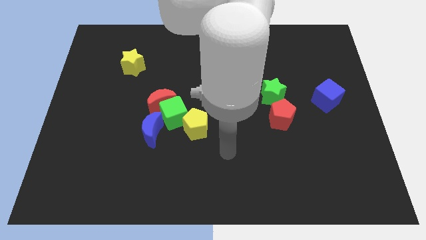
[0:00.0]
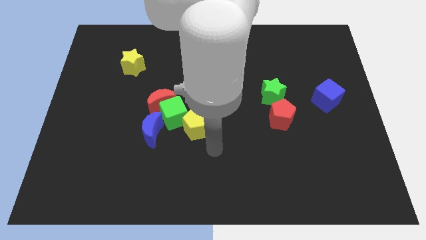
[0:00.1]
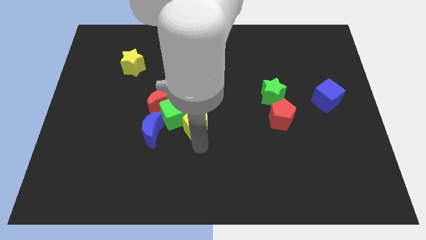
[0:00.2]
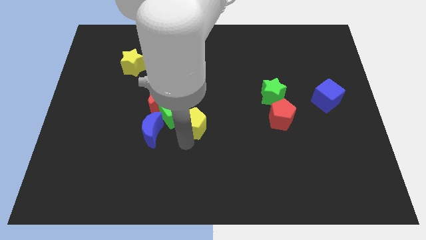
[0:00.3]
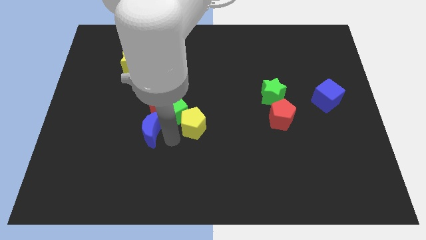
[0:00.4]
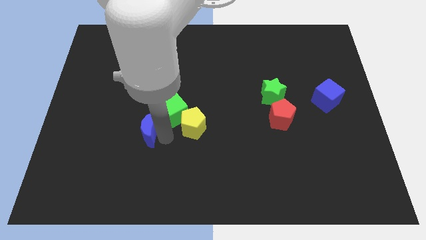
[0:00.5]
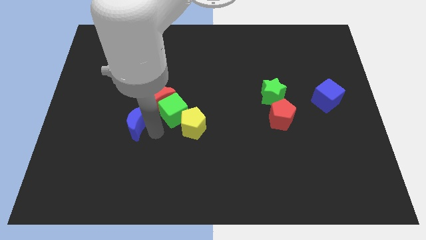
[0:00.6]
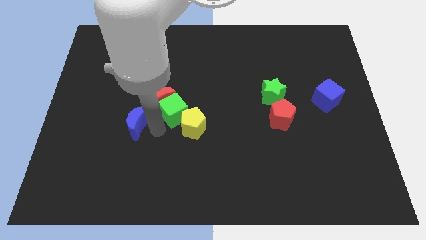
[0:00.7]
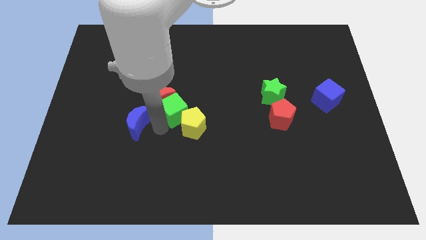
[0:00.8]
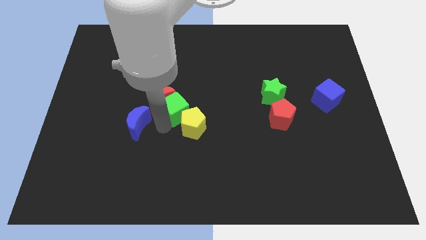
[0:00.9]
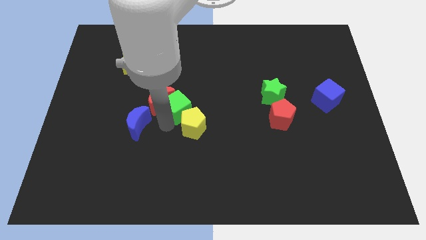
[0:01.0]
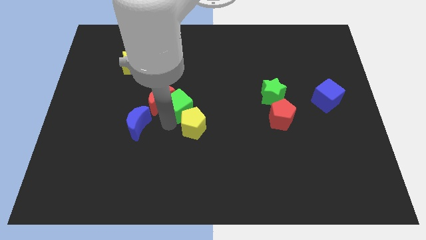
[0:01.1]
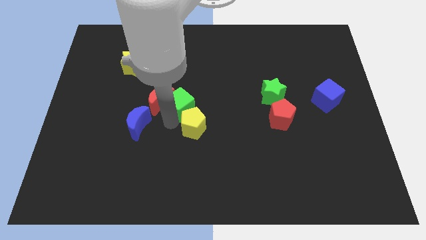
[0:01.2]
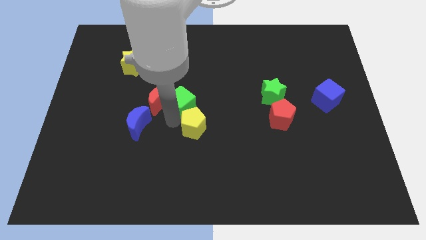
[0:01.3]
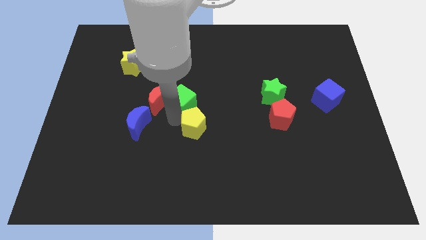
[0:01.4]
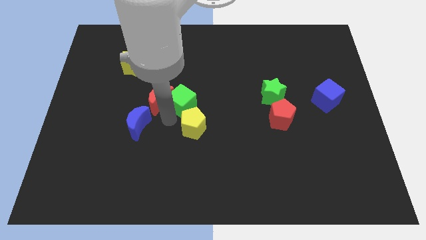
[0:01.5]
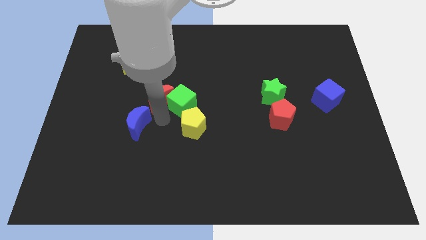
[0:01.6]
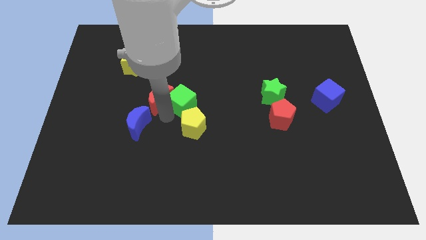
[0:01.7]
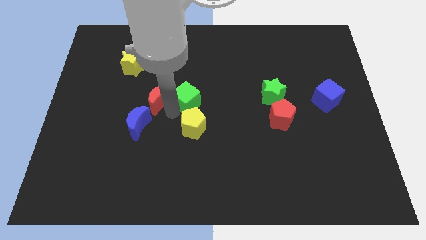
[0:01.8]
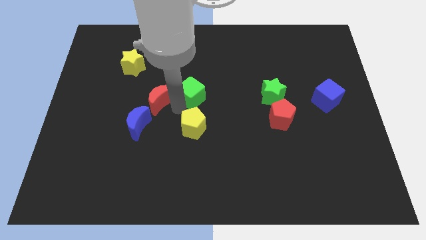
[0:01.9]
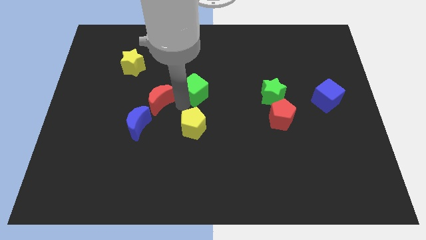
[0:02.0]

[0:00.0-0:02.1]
separate the green cube from the clump

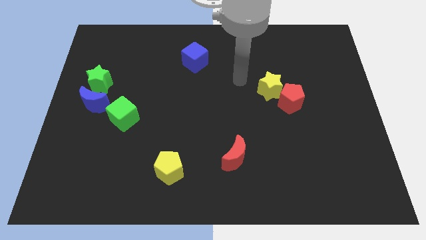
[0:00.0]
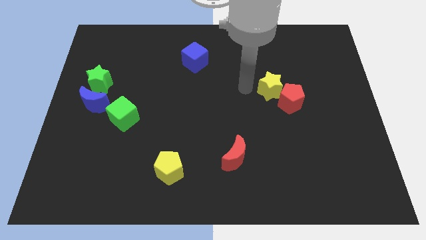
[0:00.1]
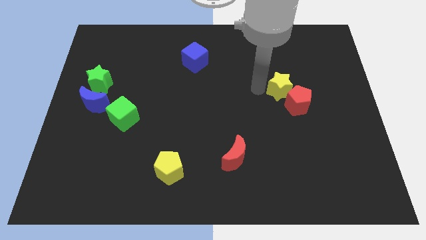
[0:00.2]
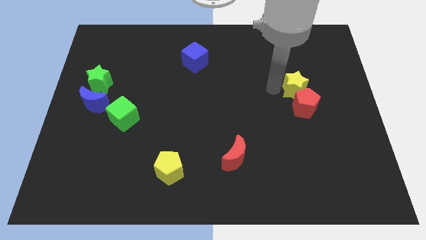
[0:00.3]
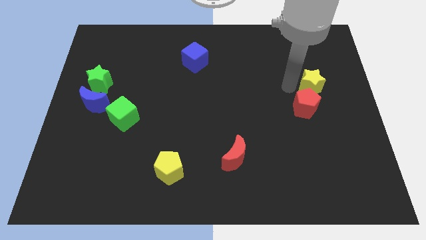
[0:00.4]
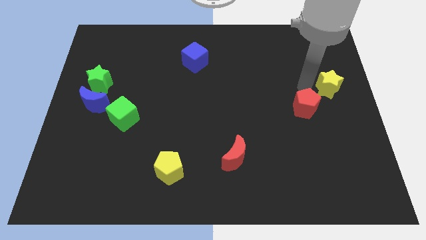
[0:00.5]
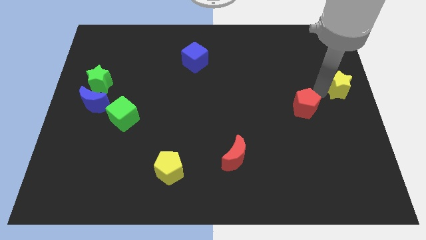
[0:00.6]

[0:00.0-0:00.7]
move the red pentagon away from the yellow star

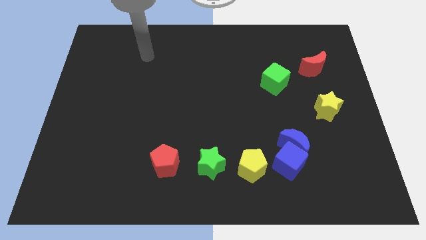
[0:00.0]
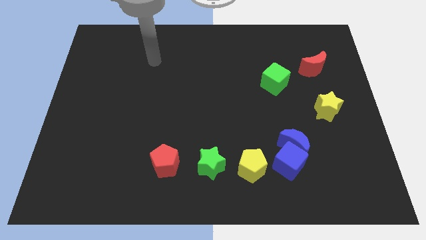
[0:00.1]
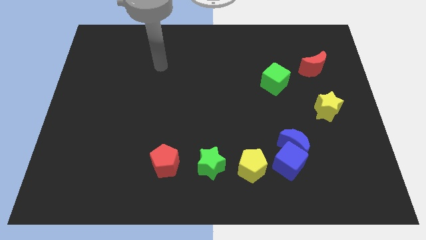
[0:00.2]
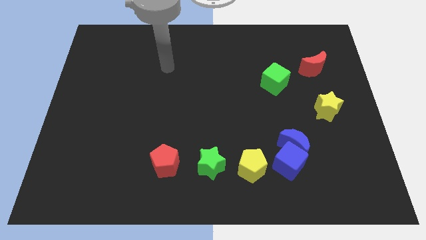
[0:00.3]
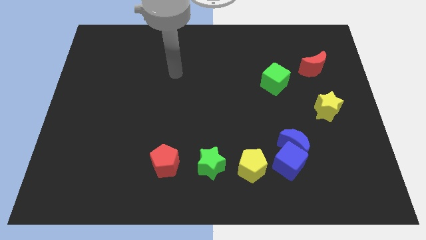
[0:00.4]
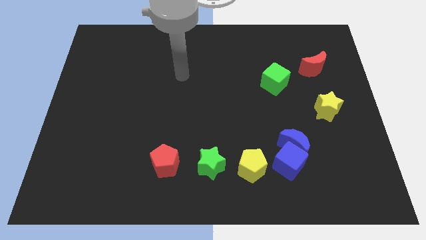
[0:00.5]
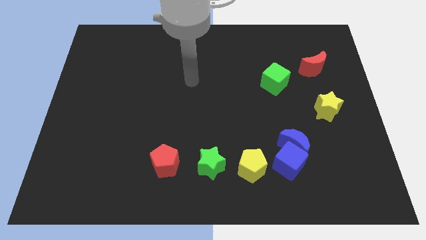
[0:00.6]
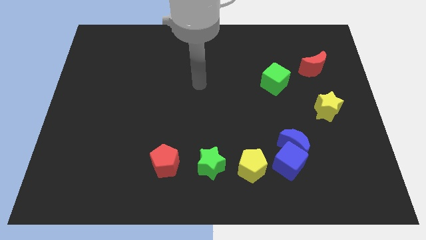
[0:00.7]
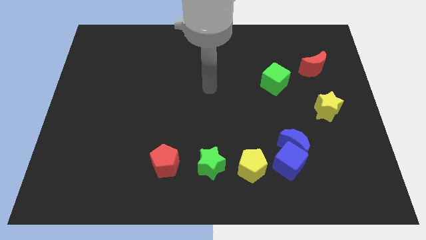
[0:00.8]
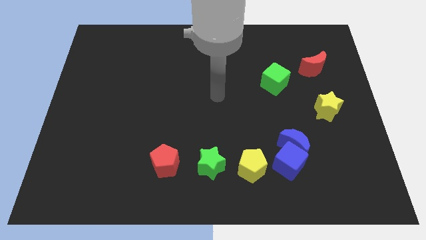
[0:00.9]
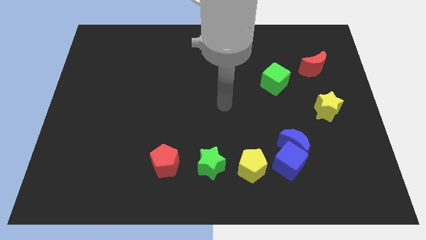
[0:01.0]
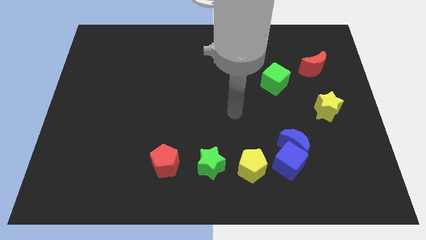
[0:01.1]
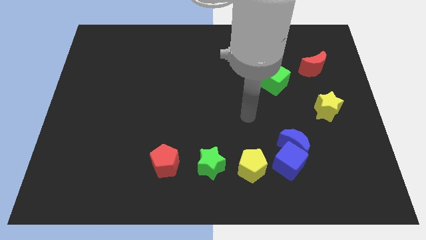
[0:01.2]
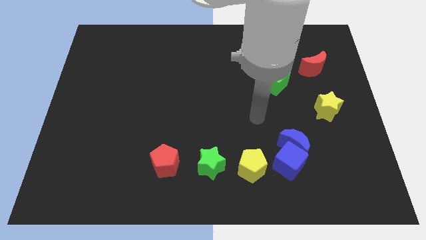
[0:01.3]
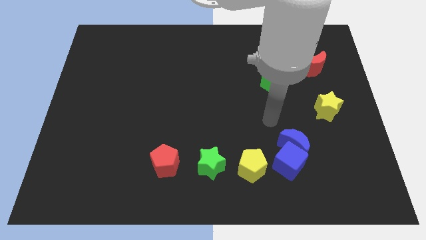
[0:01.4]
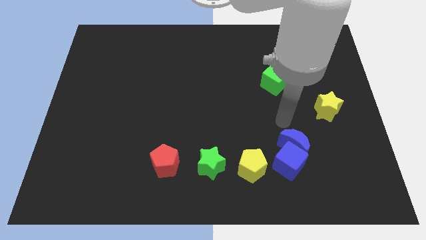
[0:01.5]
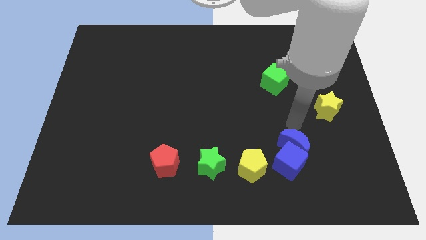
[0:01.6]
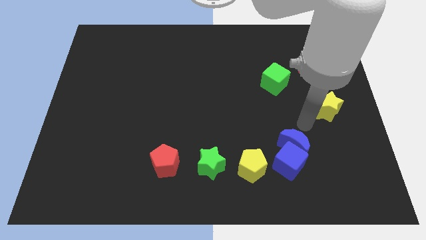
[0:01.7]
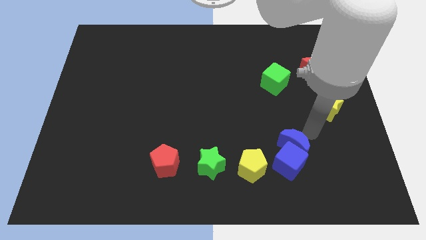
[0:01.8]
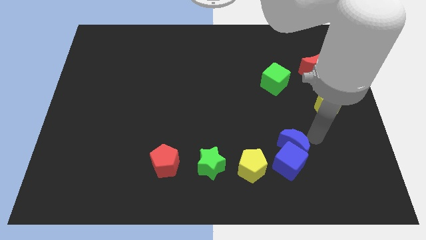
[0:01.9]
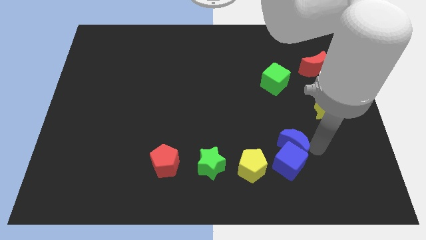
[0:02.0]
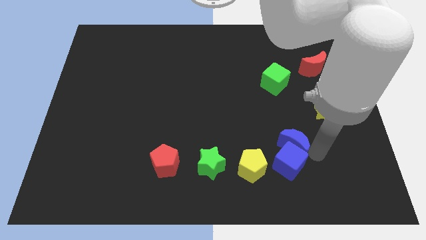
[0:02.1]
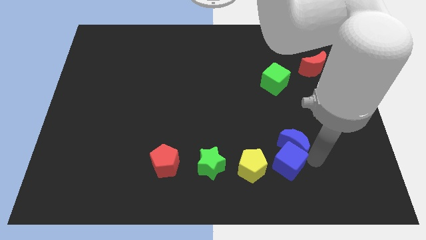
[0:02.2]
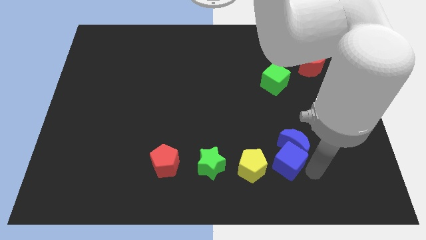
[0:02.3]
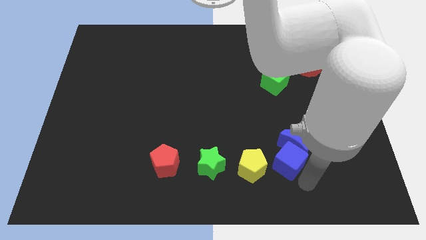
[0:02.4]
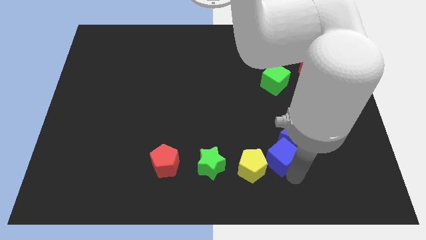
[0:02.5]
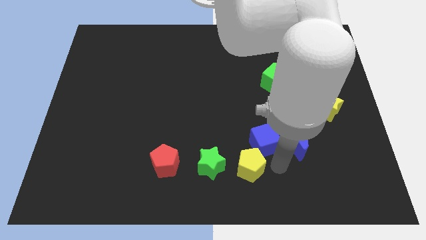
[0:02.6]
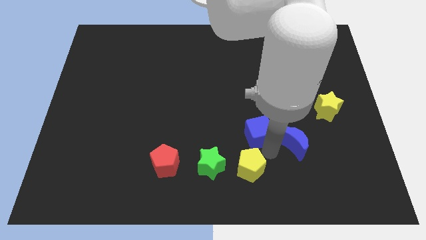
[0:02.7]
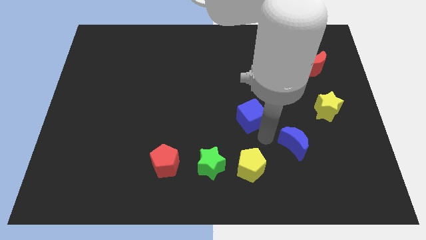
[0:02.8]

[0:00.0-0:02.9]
pull the blue moon apart from the blue cube

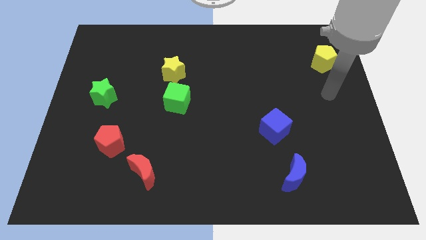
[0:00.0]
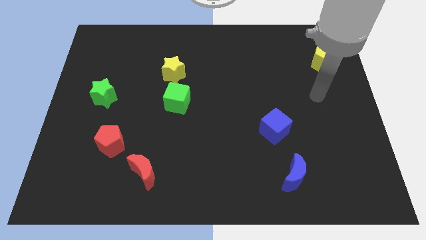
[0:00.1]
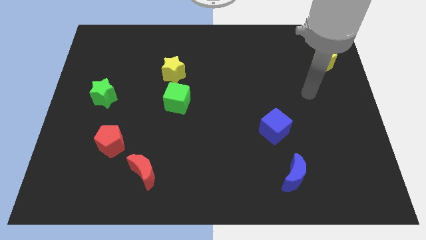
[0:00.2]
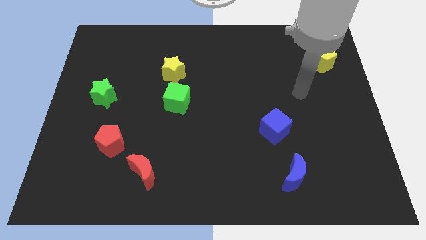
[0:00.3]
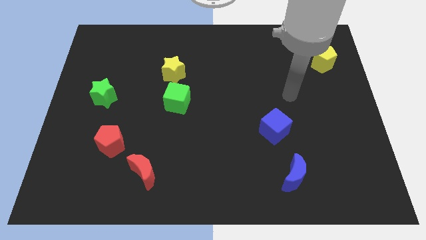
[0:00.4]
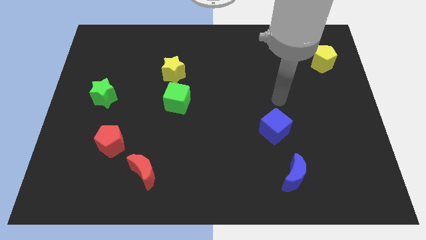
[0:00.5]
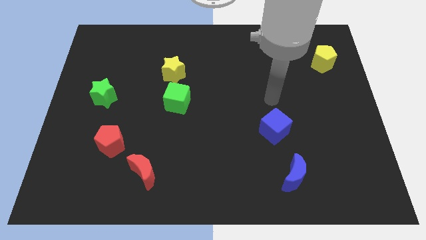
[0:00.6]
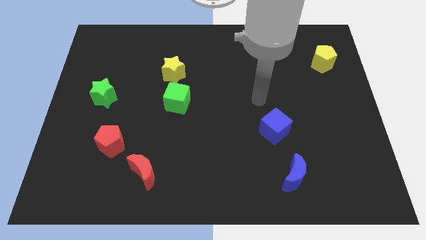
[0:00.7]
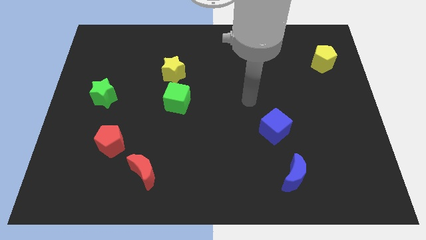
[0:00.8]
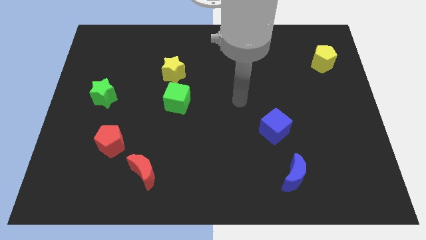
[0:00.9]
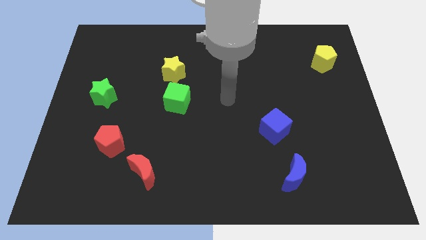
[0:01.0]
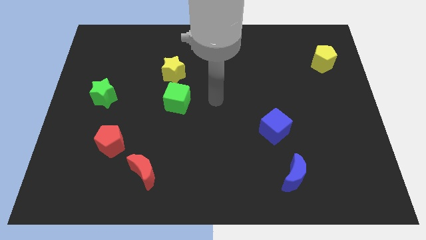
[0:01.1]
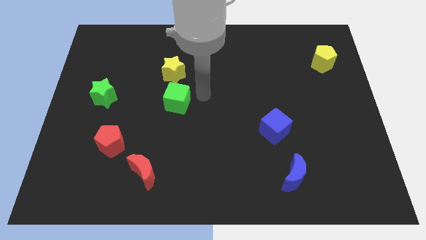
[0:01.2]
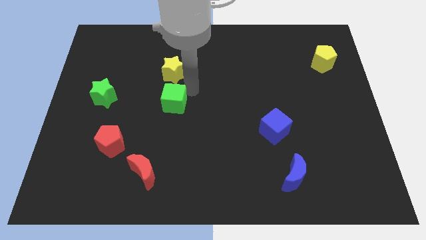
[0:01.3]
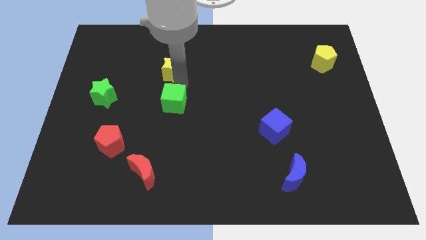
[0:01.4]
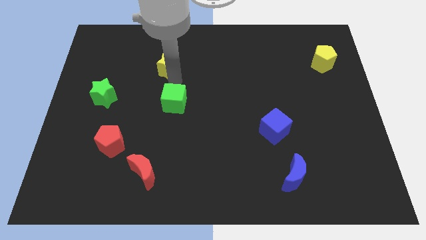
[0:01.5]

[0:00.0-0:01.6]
pull the green cube apart from the yellow star

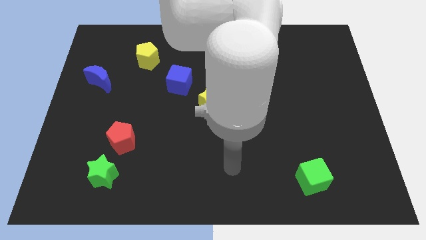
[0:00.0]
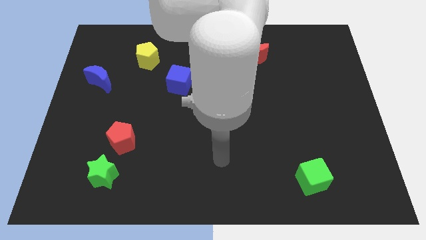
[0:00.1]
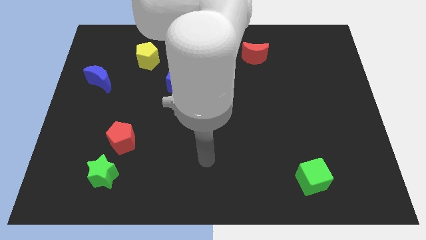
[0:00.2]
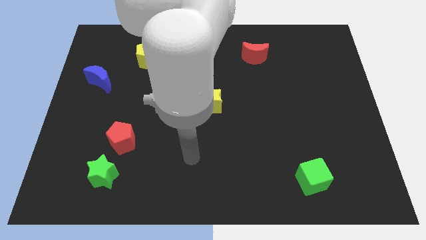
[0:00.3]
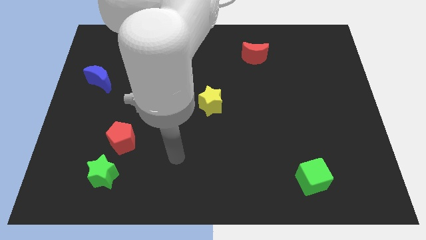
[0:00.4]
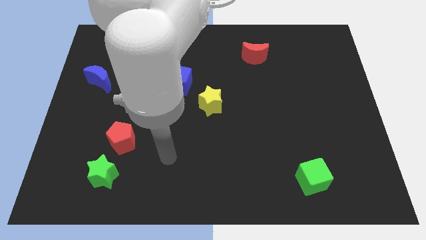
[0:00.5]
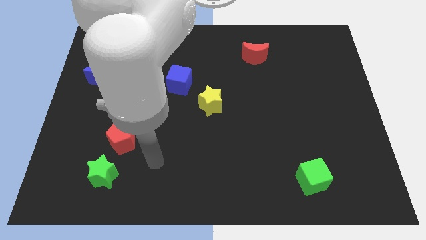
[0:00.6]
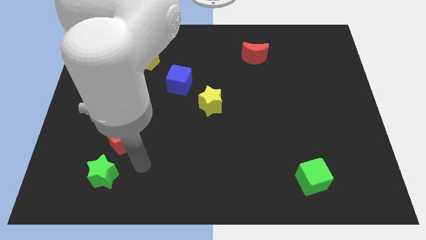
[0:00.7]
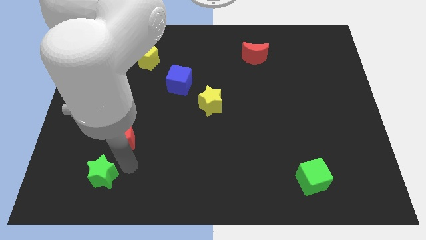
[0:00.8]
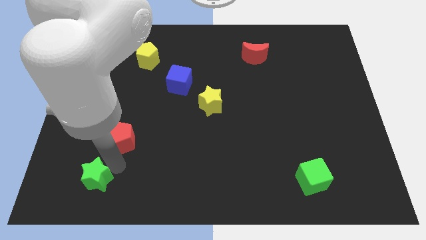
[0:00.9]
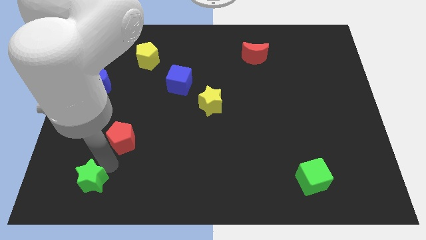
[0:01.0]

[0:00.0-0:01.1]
move the red pentagon away from the green star

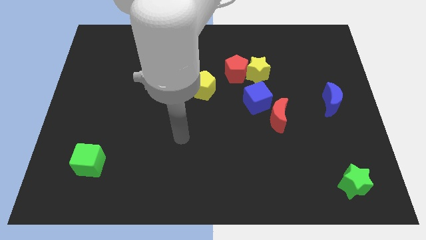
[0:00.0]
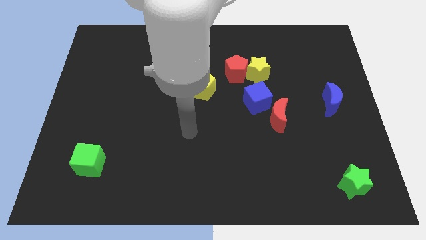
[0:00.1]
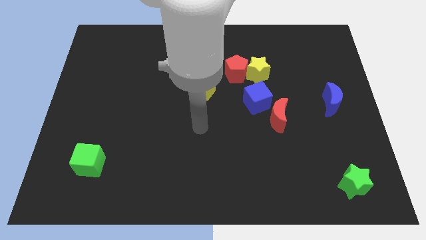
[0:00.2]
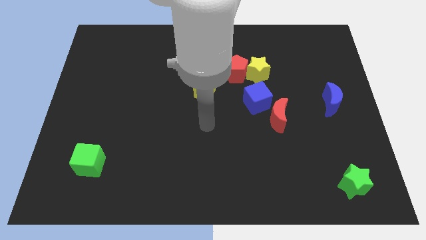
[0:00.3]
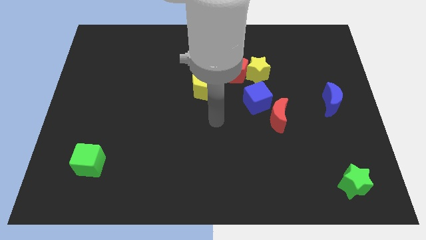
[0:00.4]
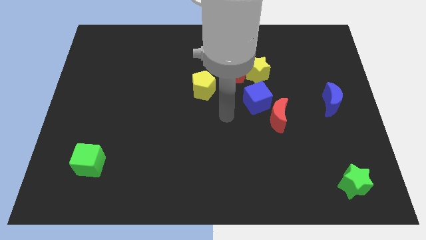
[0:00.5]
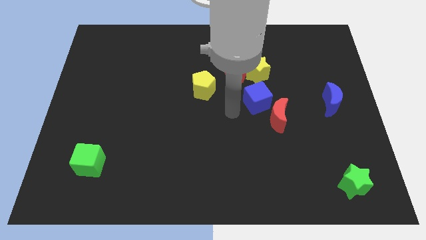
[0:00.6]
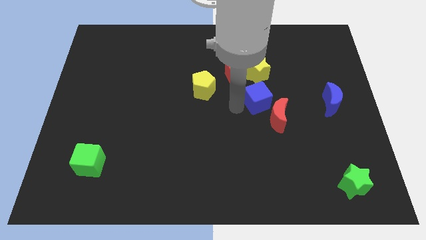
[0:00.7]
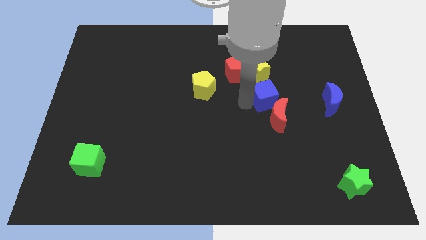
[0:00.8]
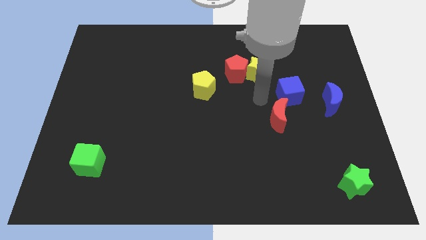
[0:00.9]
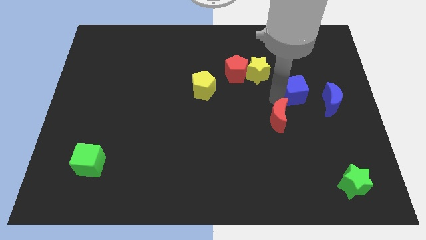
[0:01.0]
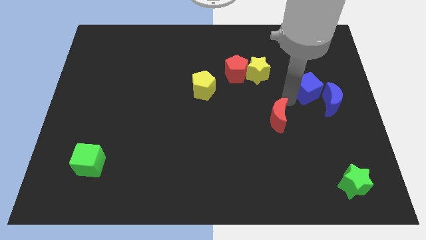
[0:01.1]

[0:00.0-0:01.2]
pull the red moon apart from the blue cube
